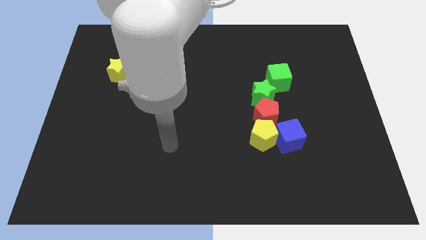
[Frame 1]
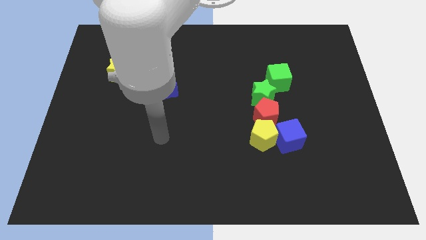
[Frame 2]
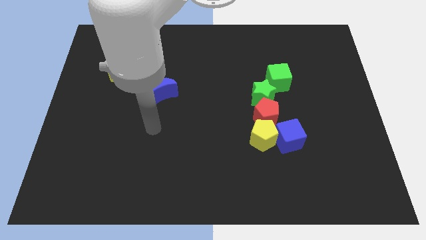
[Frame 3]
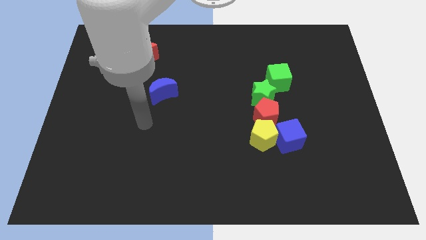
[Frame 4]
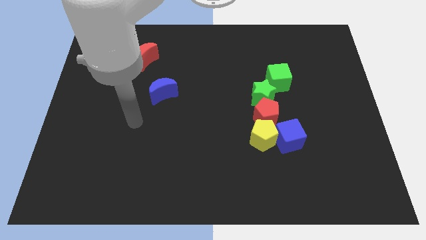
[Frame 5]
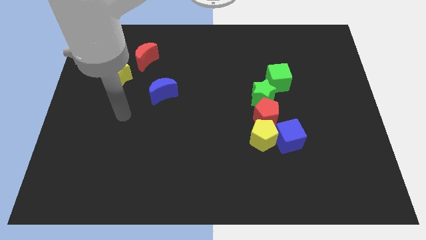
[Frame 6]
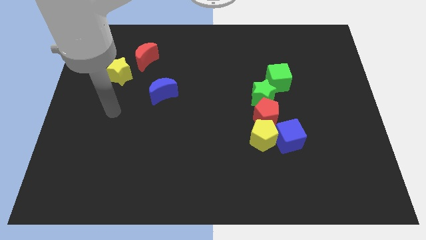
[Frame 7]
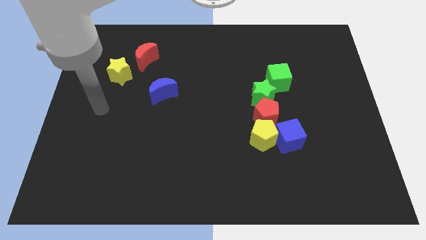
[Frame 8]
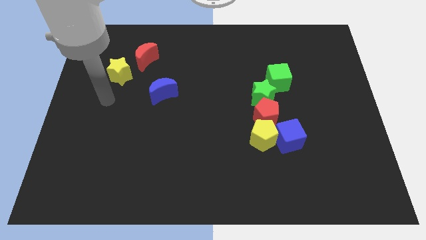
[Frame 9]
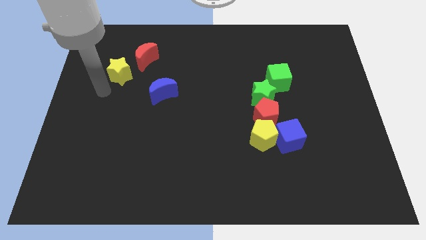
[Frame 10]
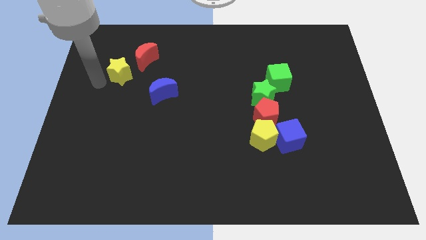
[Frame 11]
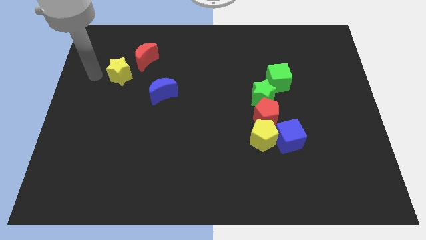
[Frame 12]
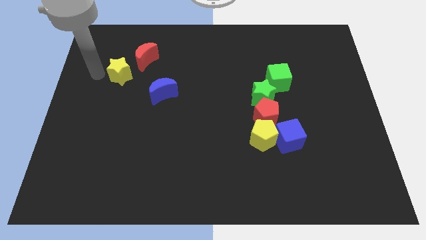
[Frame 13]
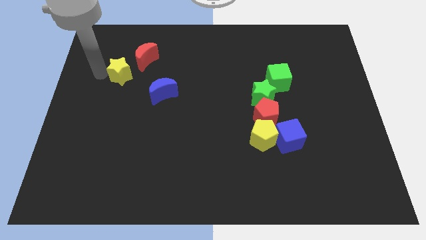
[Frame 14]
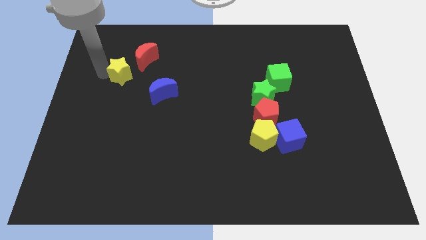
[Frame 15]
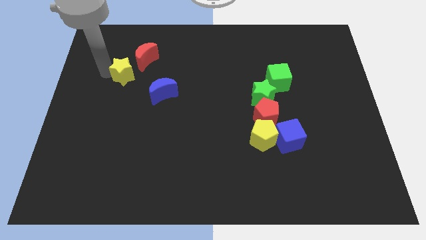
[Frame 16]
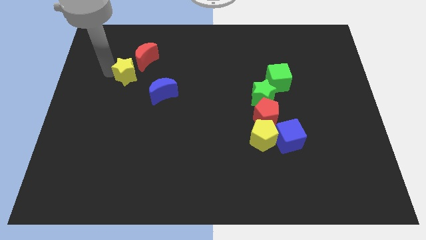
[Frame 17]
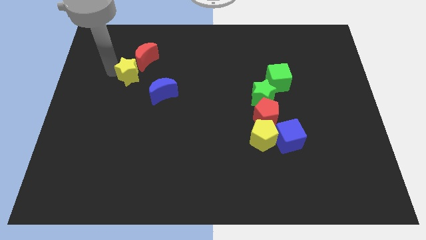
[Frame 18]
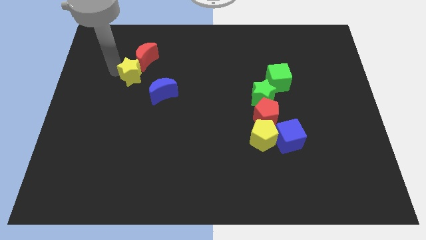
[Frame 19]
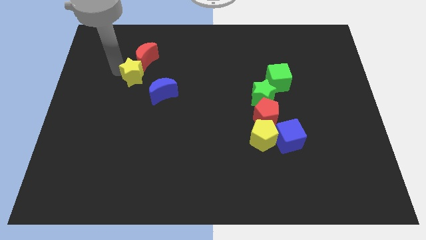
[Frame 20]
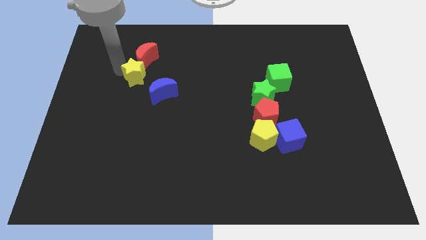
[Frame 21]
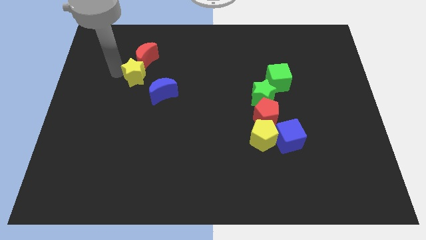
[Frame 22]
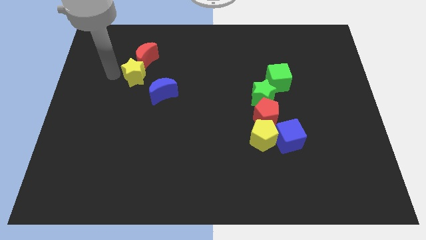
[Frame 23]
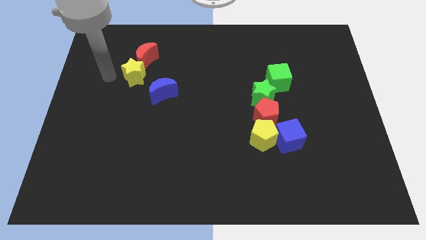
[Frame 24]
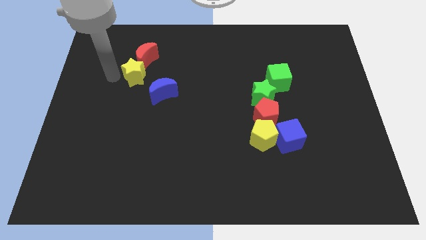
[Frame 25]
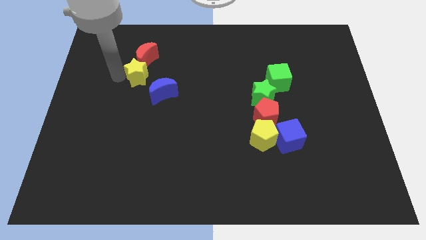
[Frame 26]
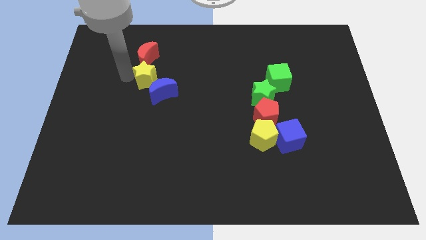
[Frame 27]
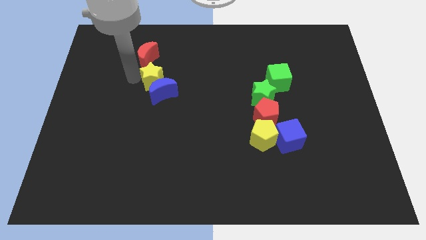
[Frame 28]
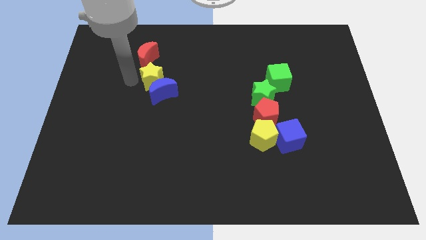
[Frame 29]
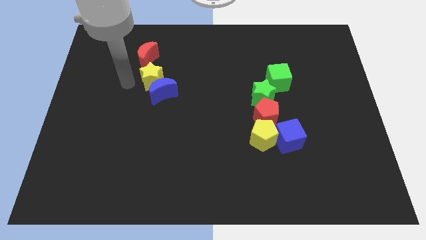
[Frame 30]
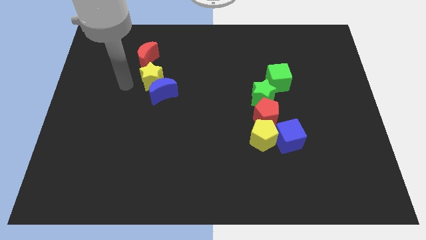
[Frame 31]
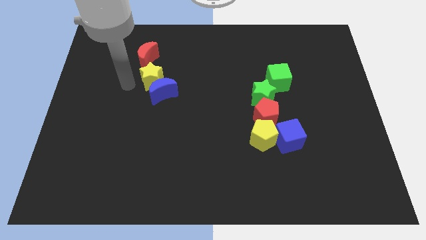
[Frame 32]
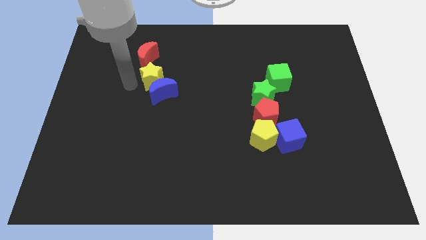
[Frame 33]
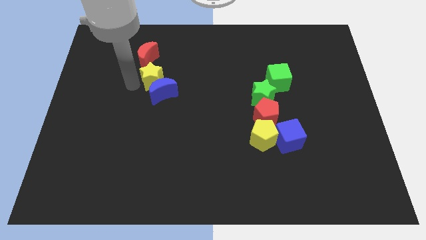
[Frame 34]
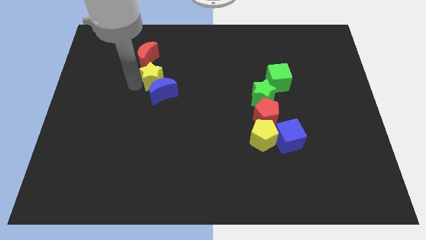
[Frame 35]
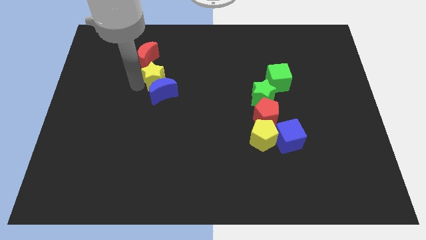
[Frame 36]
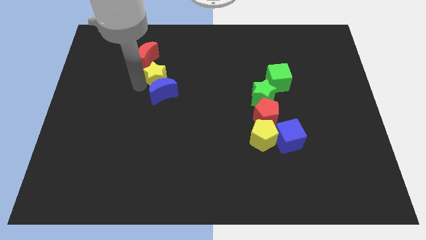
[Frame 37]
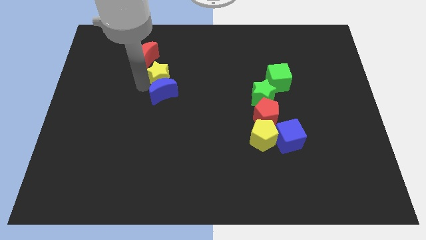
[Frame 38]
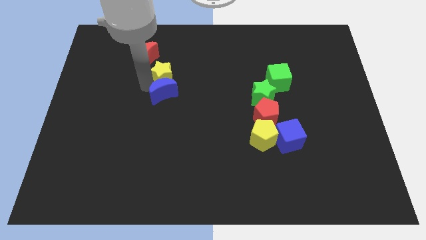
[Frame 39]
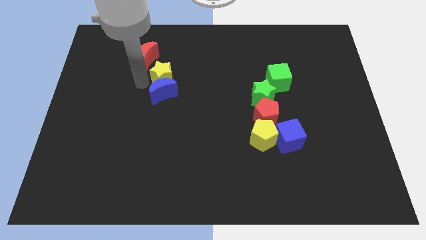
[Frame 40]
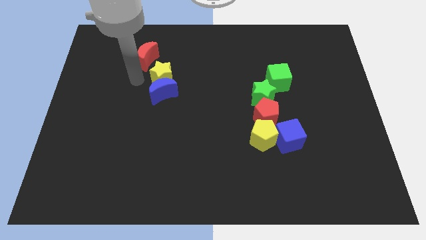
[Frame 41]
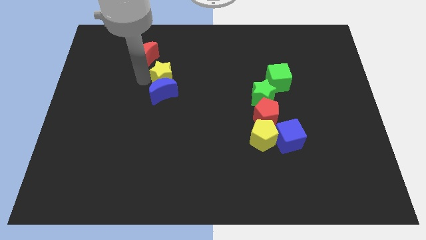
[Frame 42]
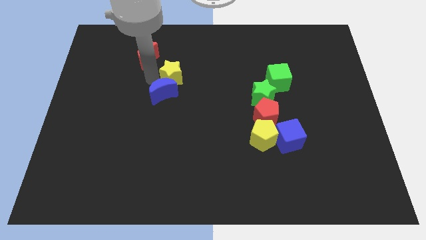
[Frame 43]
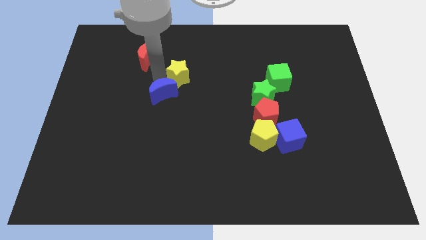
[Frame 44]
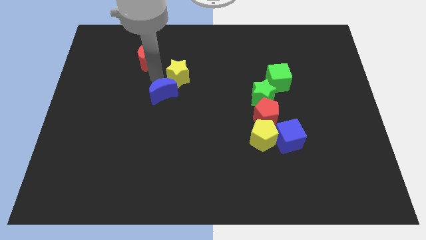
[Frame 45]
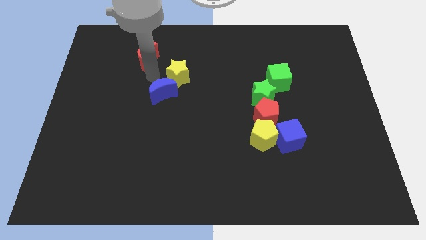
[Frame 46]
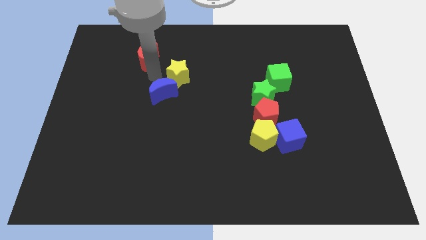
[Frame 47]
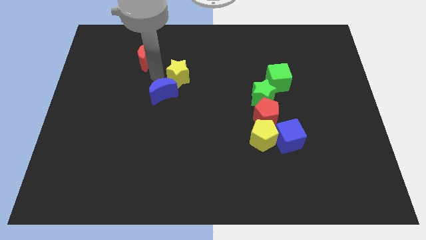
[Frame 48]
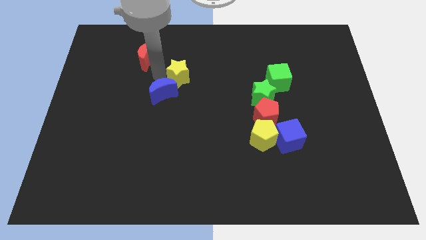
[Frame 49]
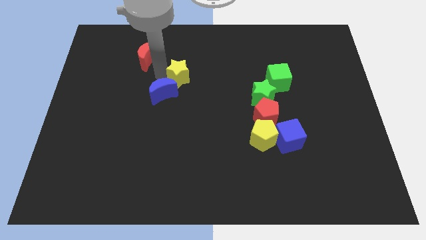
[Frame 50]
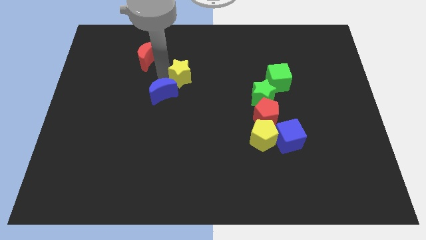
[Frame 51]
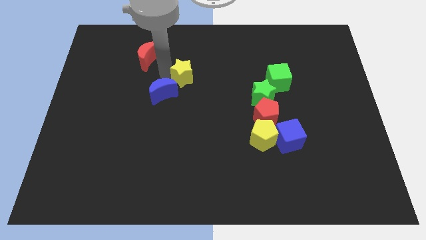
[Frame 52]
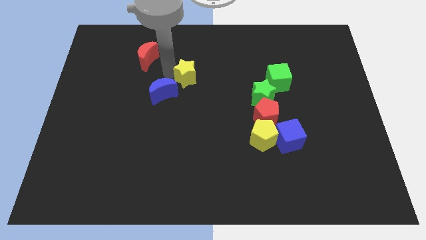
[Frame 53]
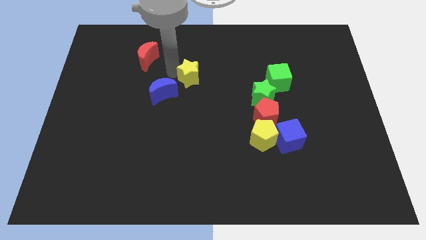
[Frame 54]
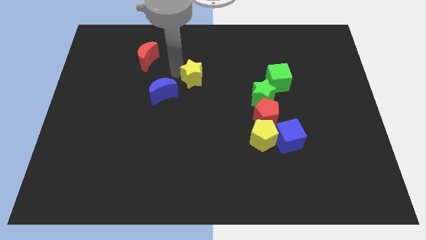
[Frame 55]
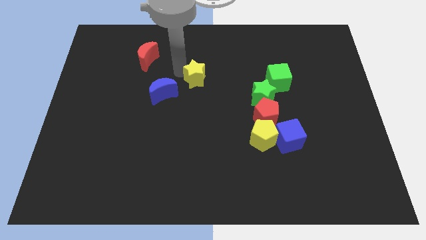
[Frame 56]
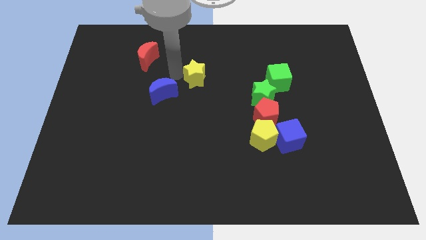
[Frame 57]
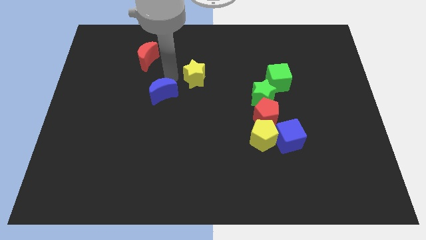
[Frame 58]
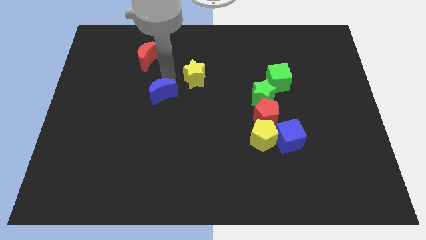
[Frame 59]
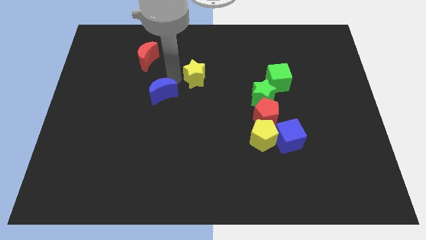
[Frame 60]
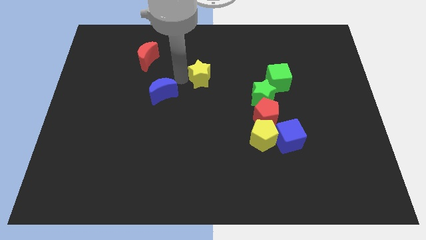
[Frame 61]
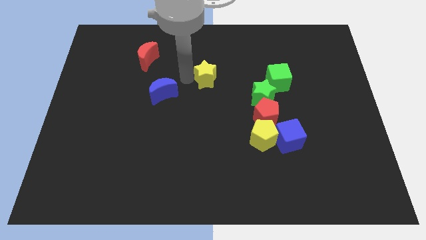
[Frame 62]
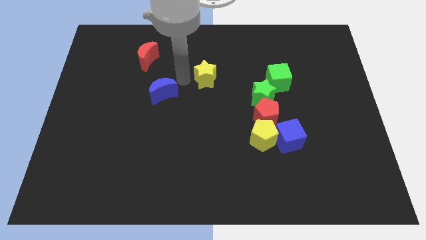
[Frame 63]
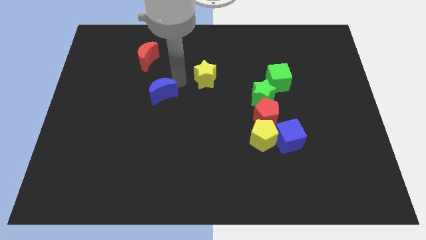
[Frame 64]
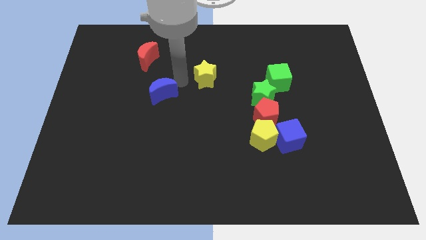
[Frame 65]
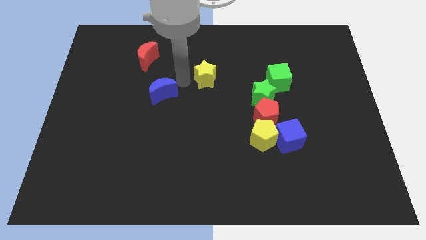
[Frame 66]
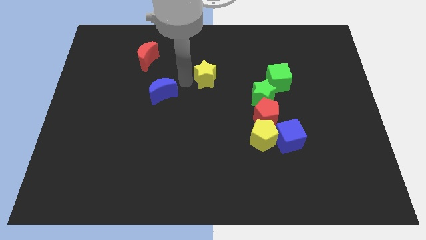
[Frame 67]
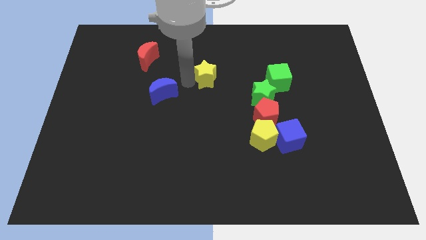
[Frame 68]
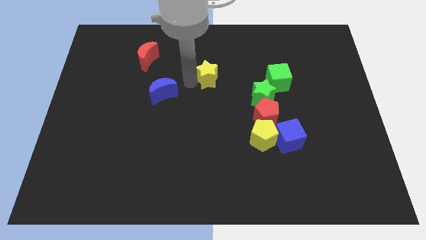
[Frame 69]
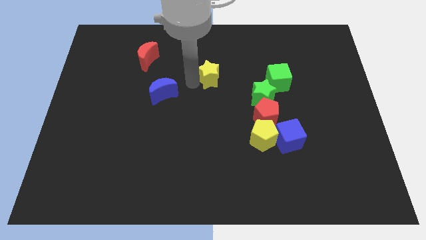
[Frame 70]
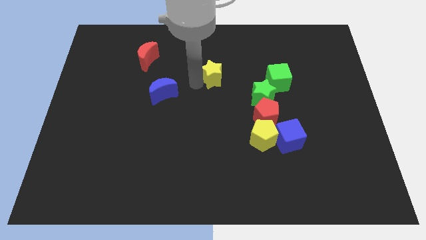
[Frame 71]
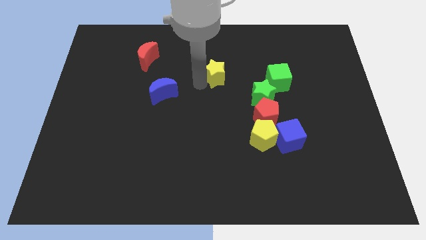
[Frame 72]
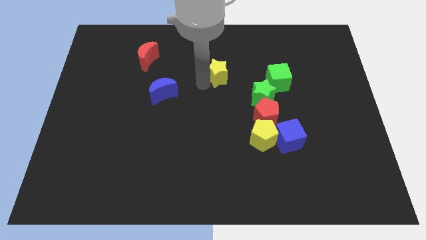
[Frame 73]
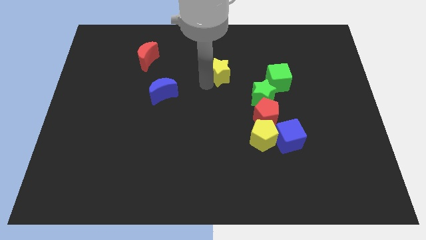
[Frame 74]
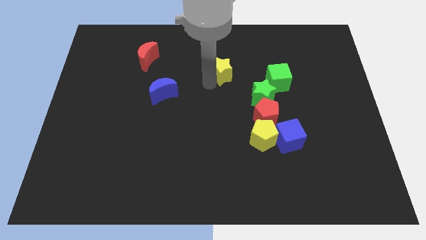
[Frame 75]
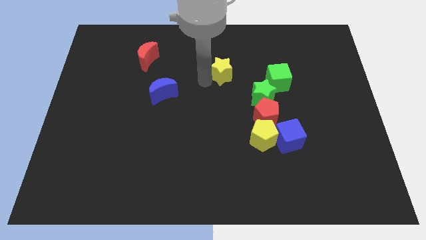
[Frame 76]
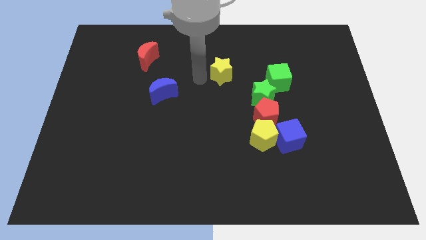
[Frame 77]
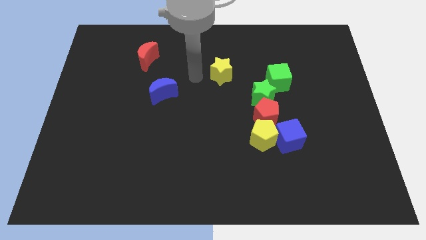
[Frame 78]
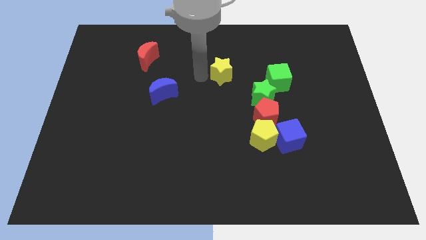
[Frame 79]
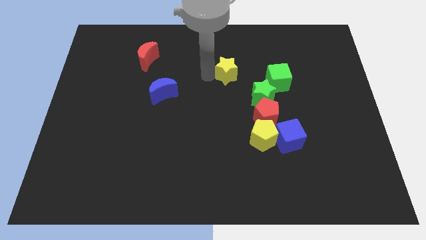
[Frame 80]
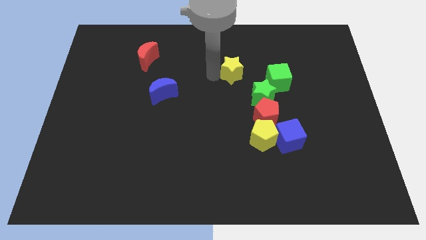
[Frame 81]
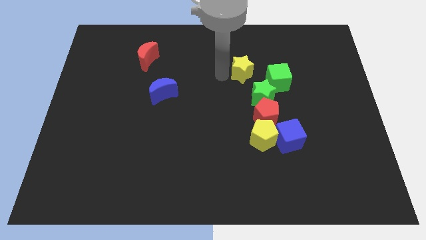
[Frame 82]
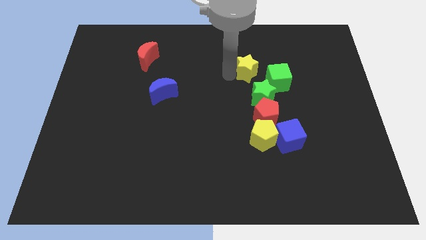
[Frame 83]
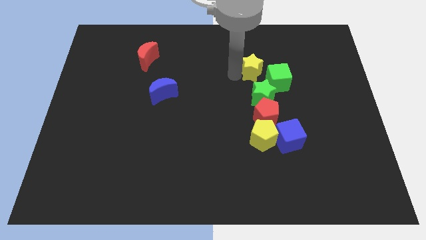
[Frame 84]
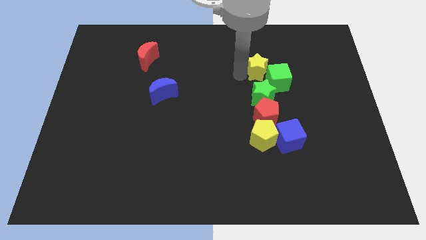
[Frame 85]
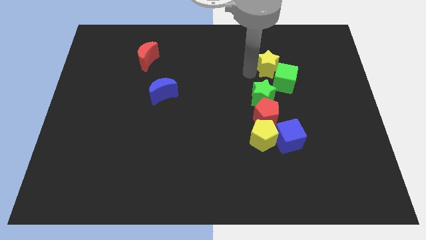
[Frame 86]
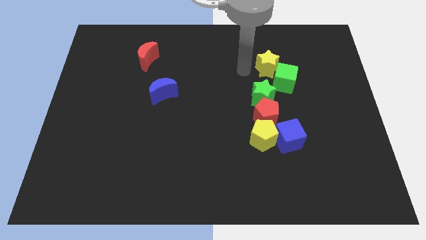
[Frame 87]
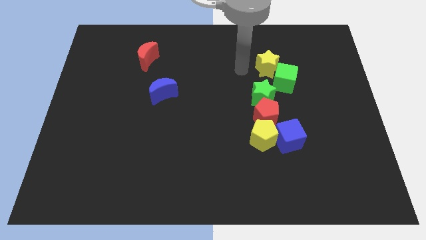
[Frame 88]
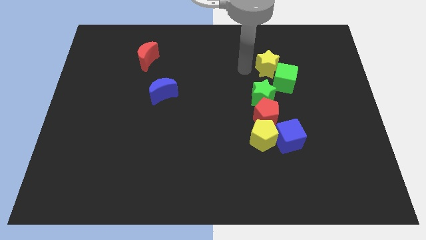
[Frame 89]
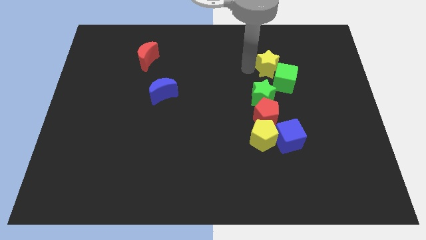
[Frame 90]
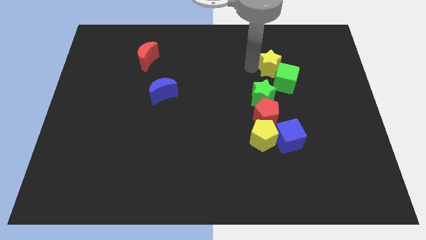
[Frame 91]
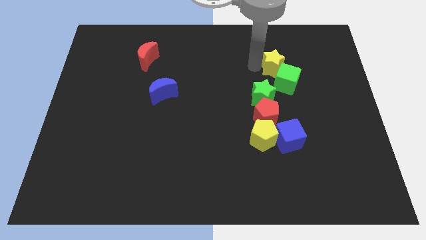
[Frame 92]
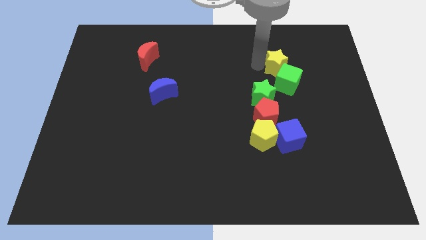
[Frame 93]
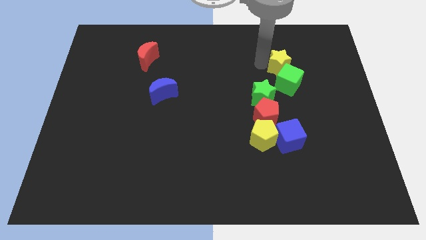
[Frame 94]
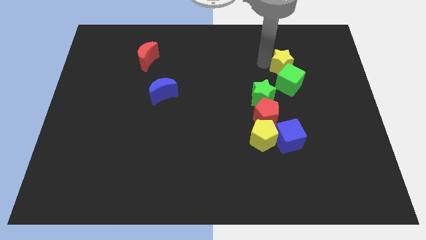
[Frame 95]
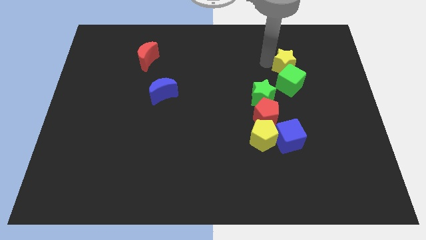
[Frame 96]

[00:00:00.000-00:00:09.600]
put the yellow star diagonally up and to the right of the green cube
